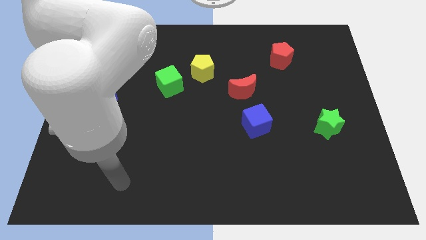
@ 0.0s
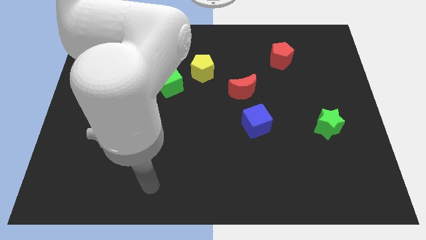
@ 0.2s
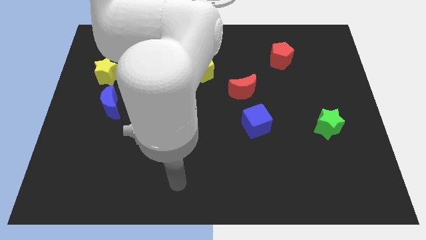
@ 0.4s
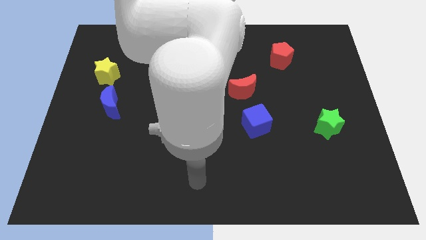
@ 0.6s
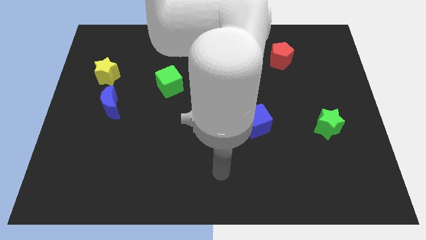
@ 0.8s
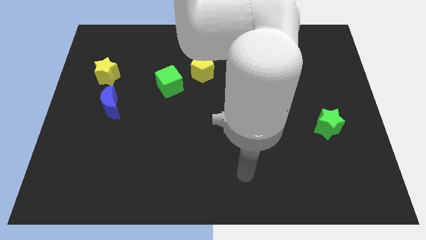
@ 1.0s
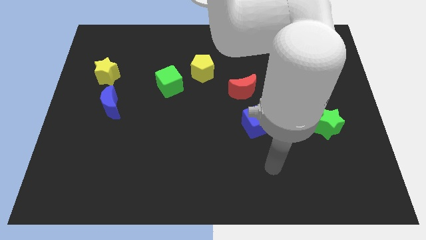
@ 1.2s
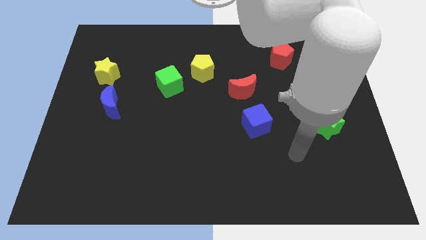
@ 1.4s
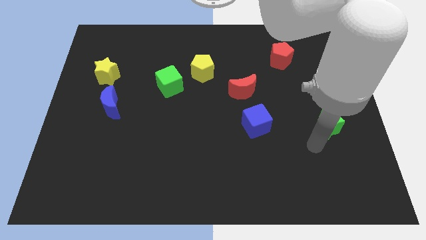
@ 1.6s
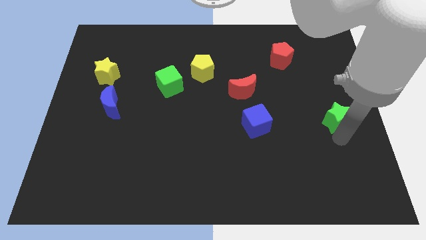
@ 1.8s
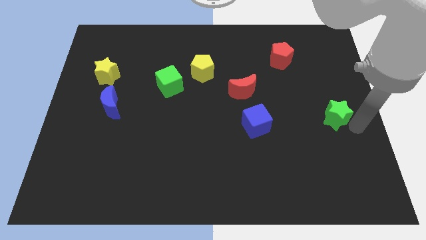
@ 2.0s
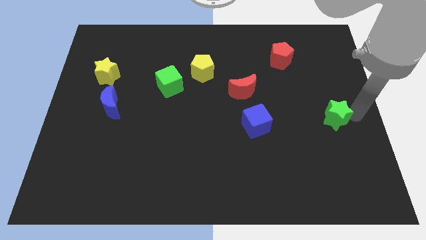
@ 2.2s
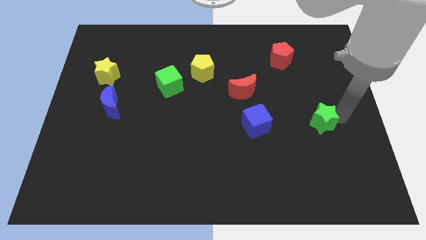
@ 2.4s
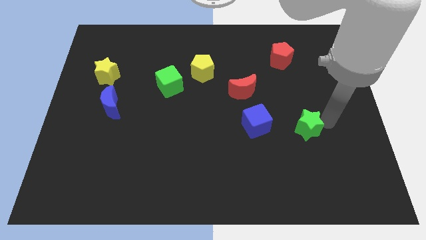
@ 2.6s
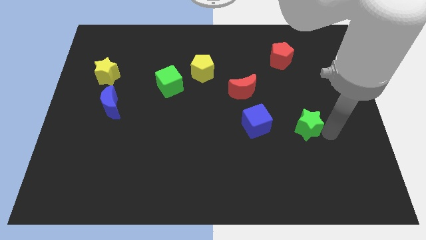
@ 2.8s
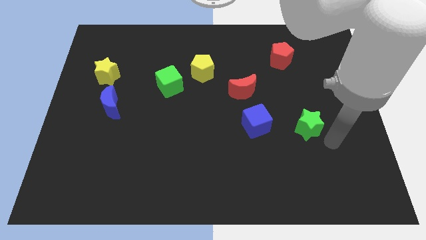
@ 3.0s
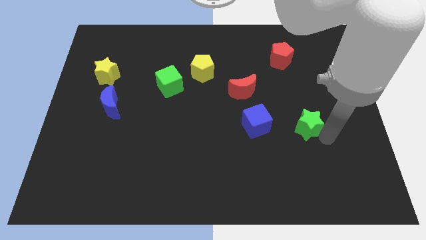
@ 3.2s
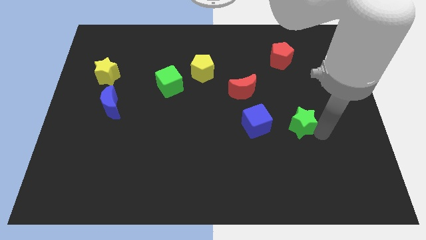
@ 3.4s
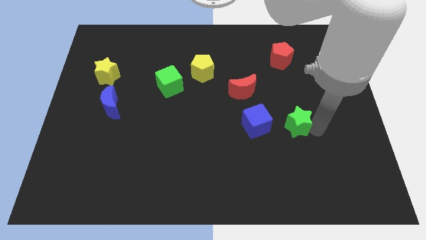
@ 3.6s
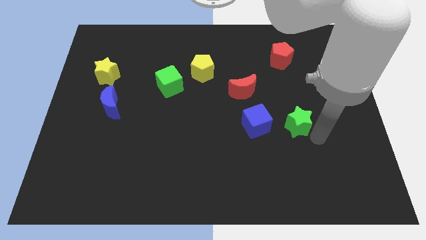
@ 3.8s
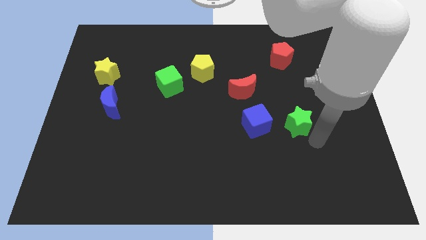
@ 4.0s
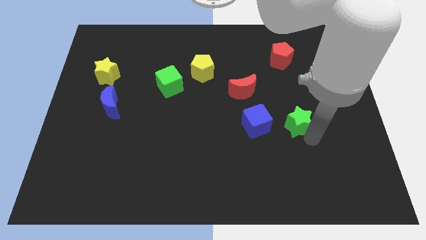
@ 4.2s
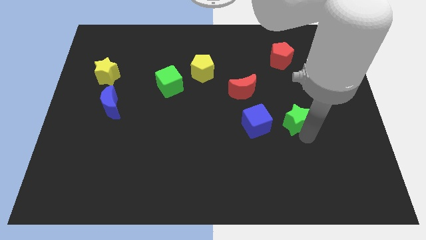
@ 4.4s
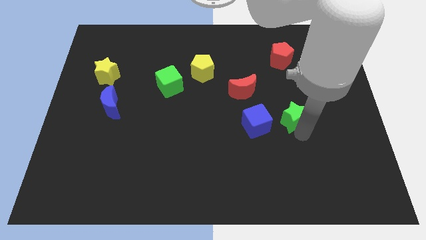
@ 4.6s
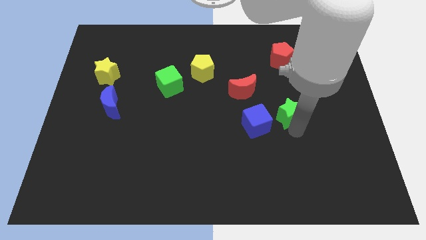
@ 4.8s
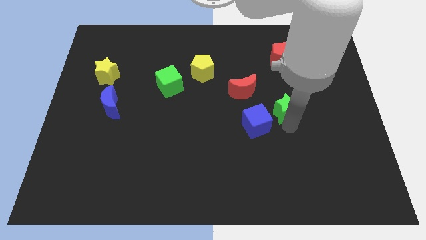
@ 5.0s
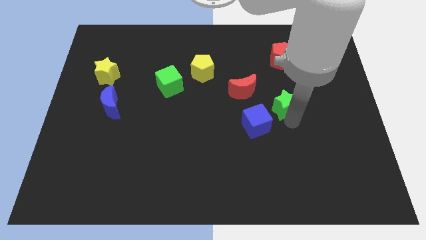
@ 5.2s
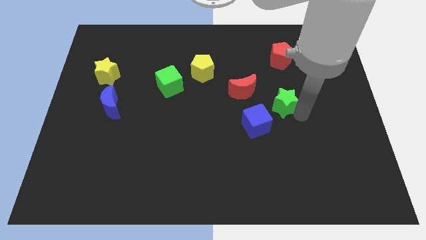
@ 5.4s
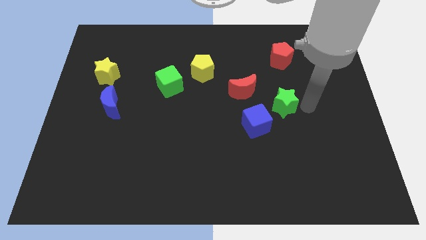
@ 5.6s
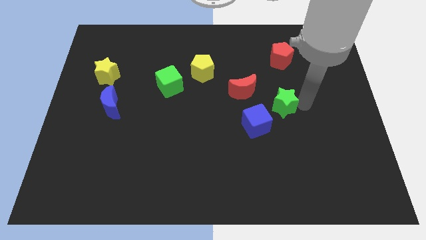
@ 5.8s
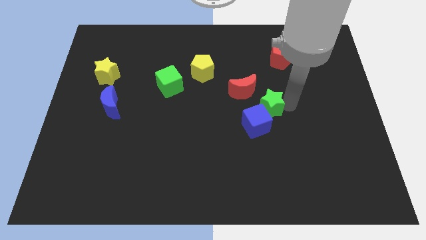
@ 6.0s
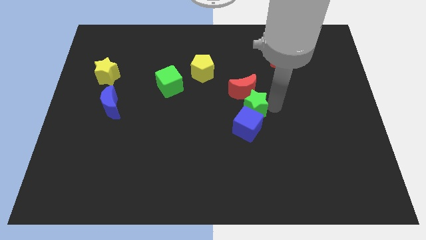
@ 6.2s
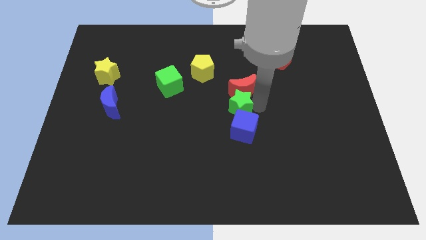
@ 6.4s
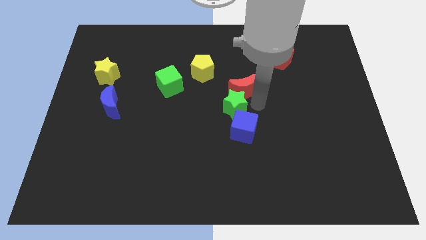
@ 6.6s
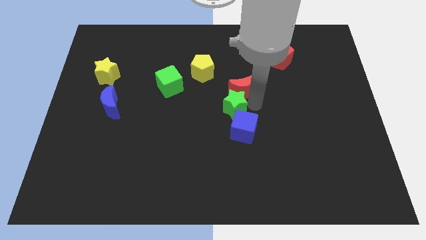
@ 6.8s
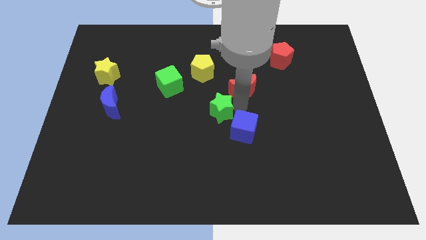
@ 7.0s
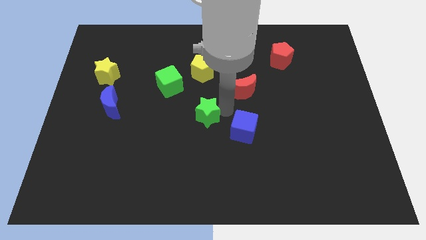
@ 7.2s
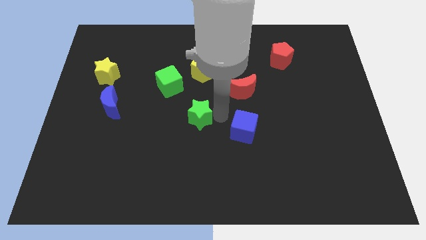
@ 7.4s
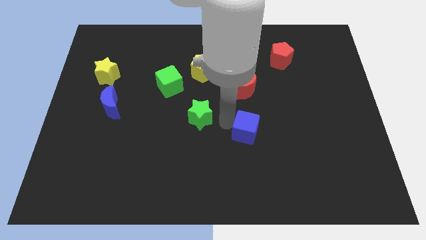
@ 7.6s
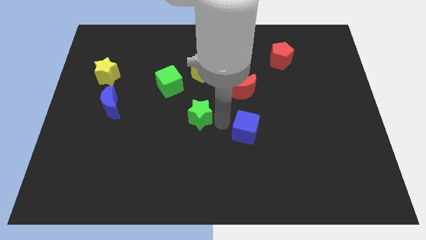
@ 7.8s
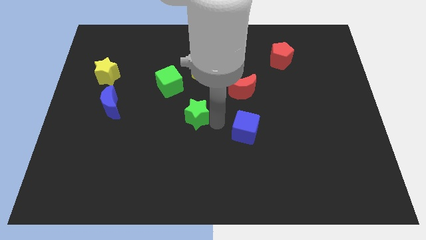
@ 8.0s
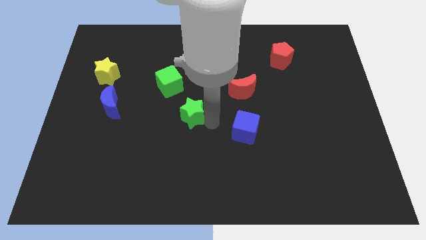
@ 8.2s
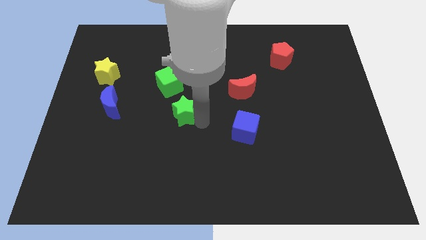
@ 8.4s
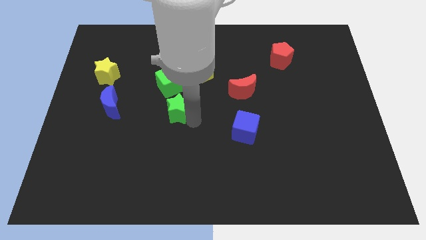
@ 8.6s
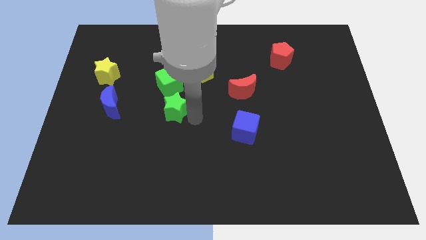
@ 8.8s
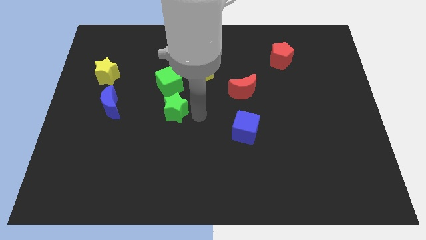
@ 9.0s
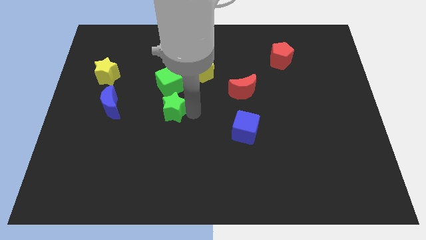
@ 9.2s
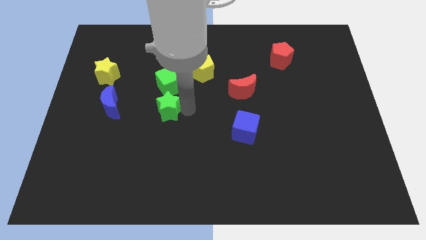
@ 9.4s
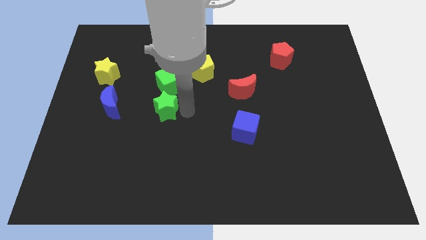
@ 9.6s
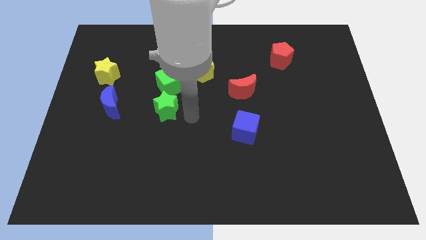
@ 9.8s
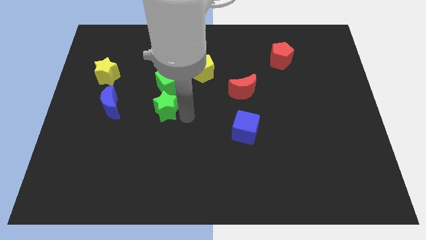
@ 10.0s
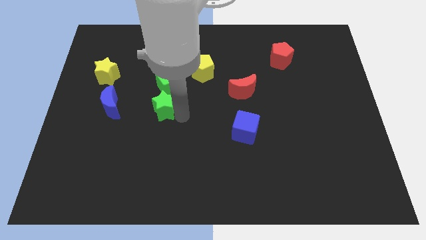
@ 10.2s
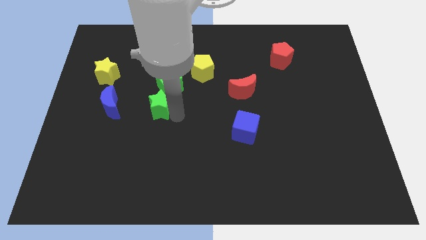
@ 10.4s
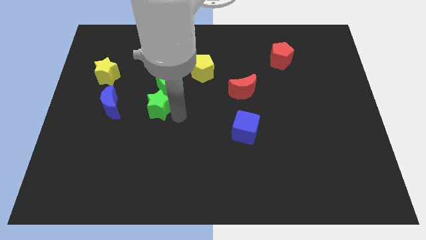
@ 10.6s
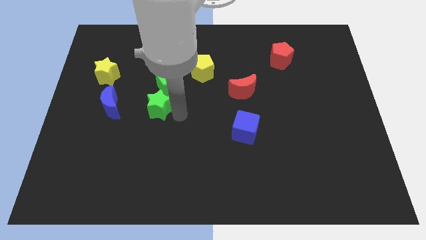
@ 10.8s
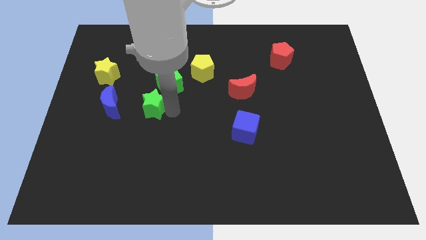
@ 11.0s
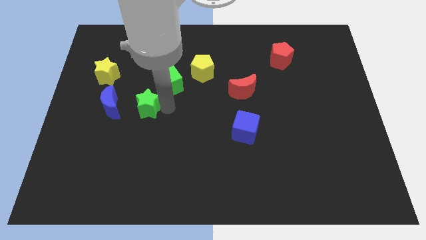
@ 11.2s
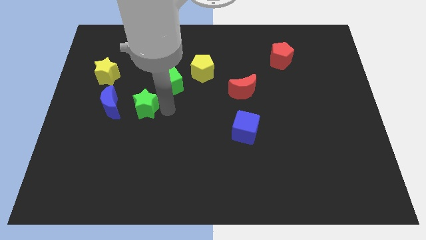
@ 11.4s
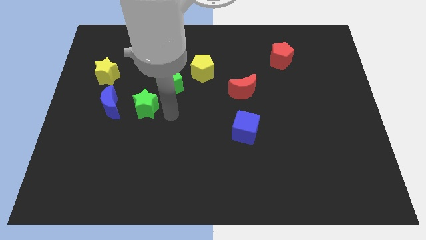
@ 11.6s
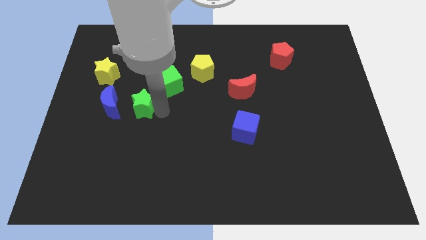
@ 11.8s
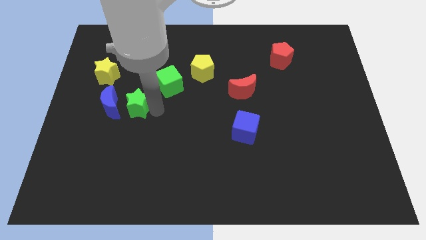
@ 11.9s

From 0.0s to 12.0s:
put the green star towards the blue moon
